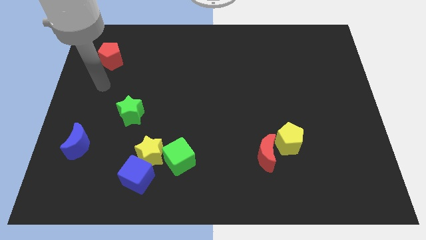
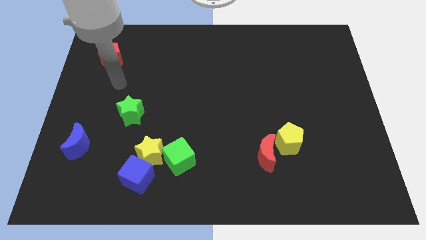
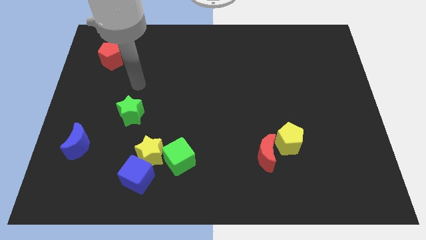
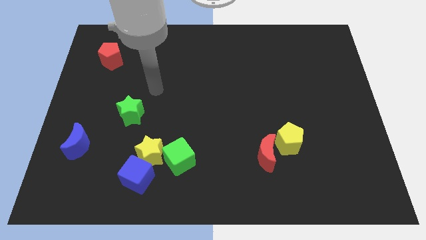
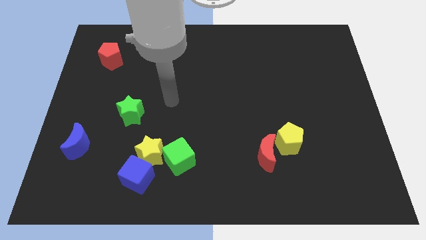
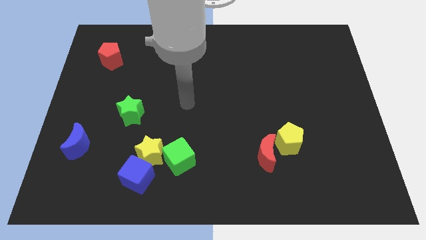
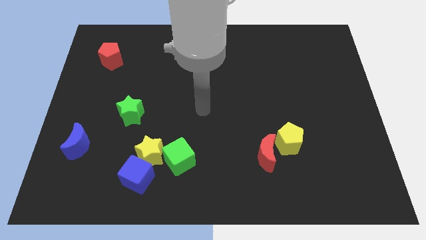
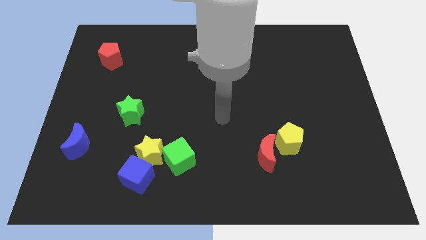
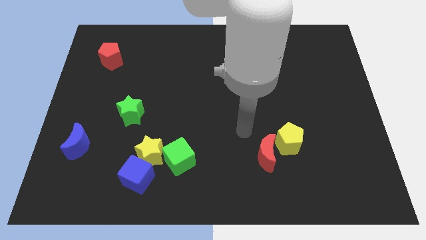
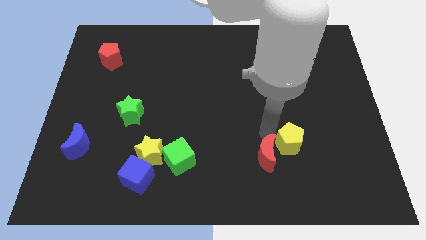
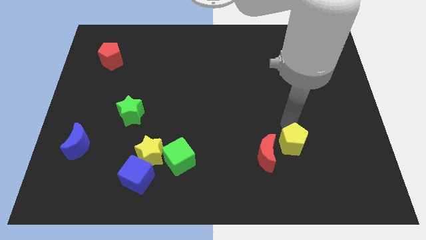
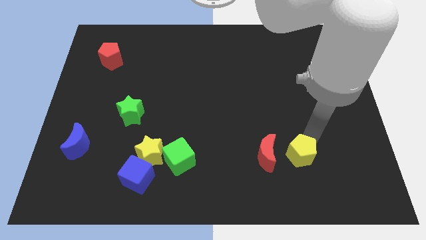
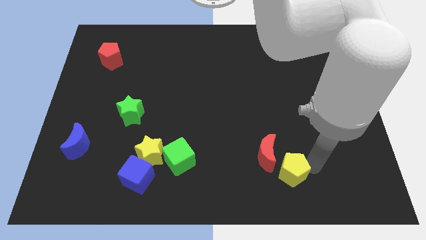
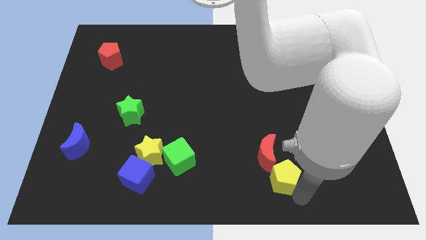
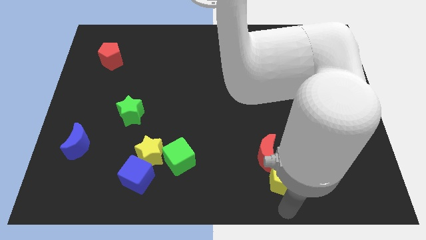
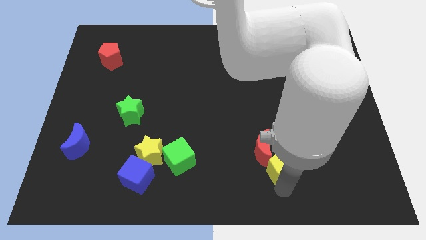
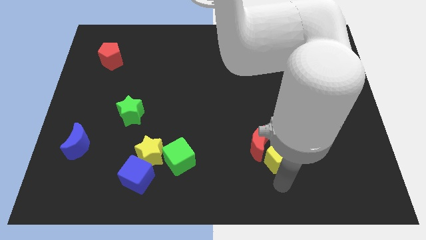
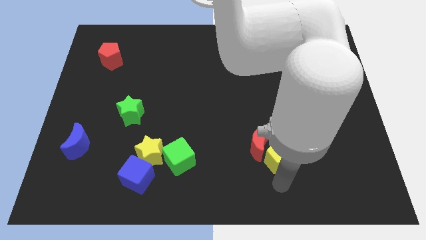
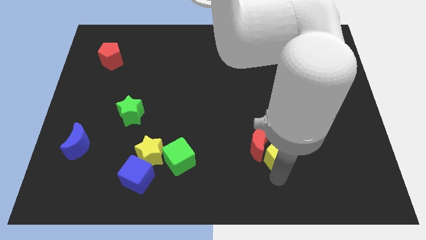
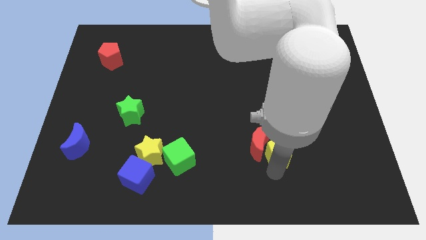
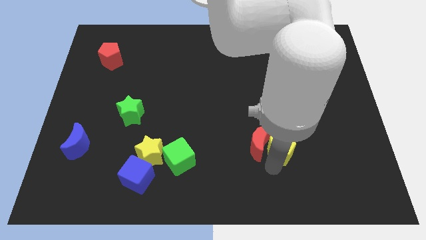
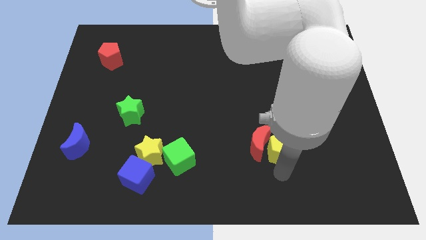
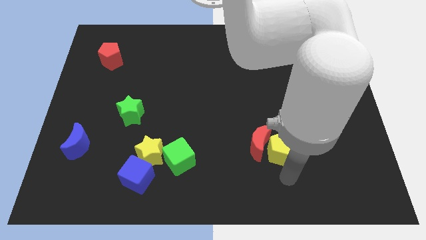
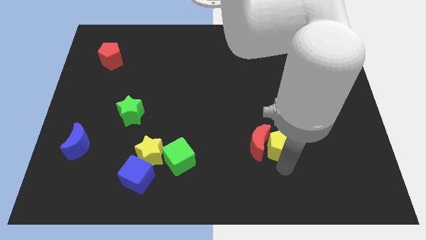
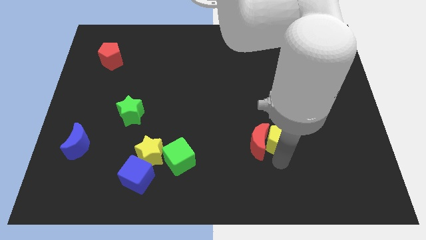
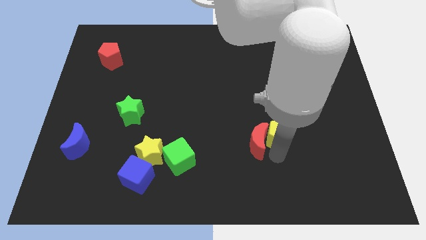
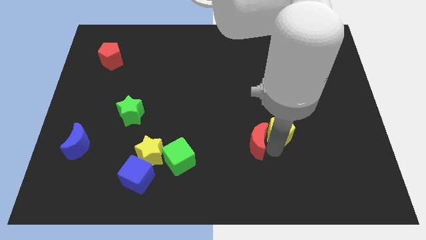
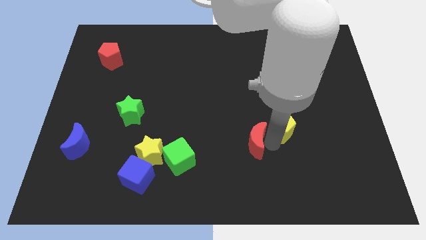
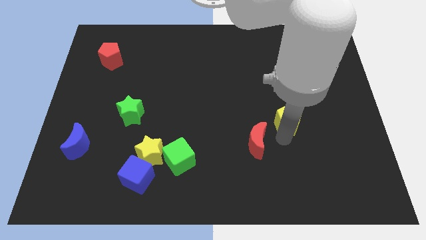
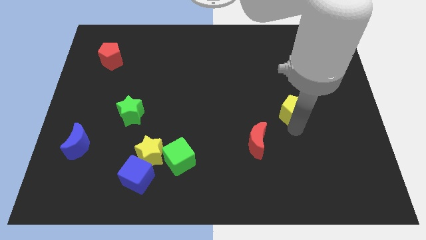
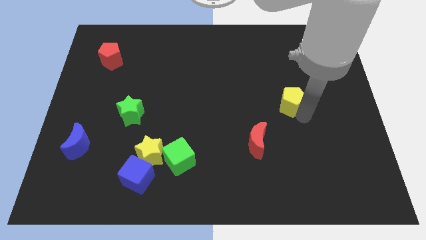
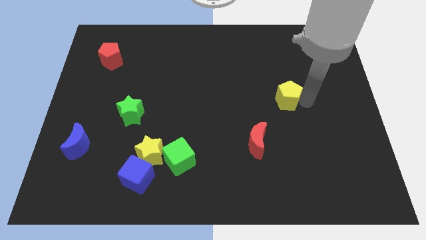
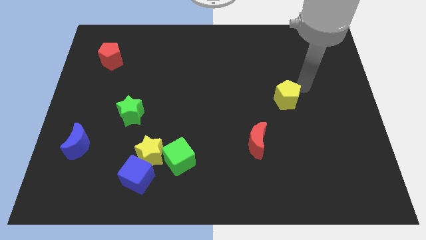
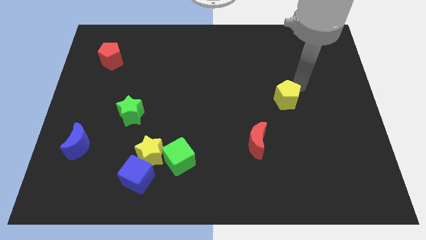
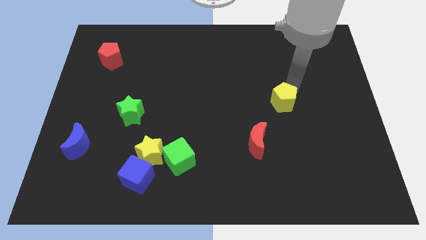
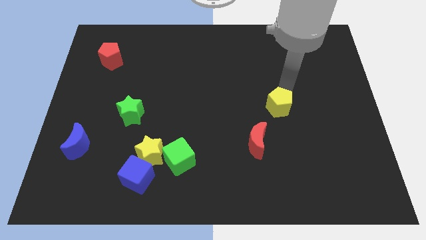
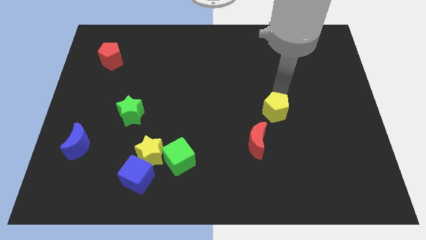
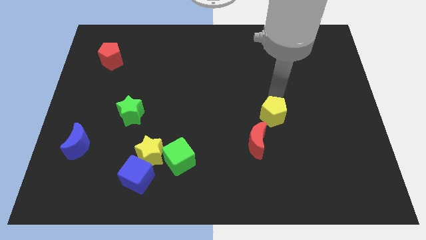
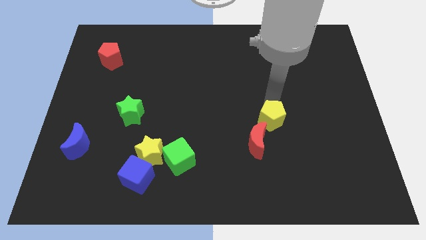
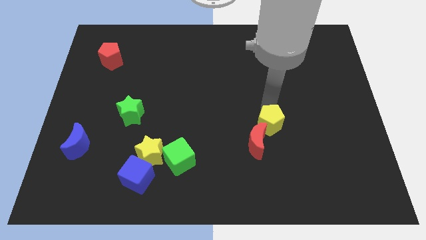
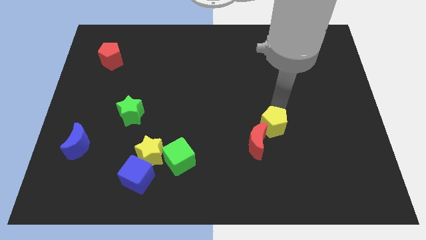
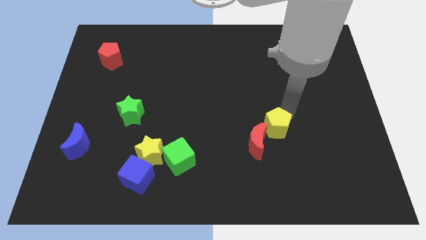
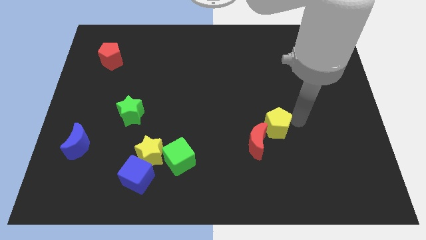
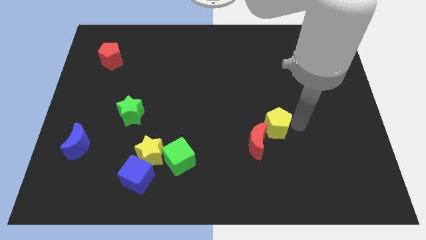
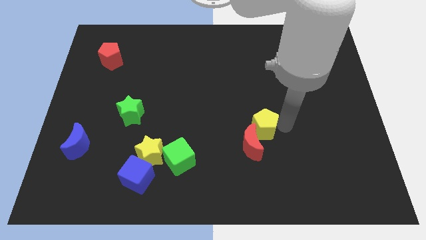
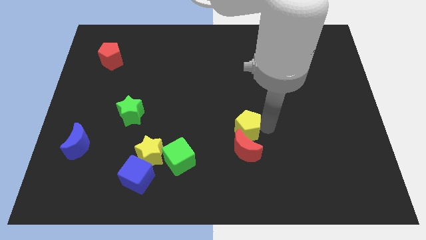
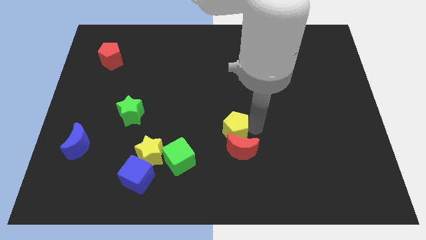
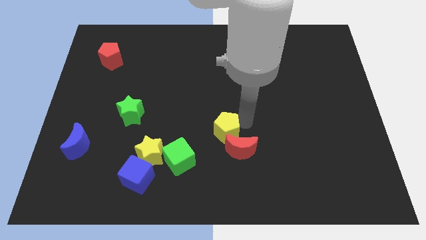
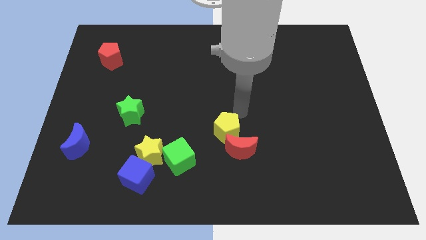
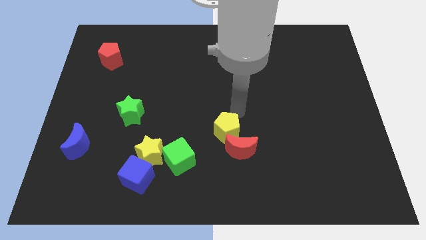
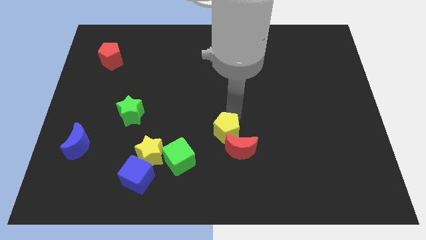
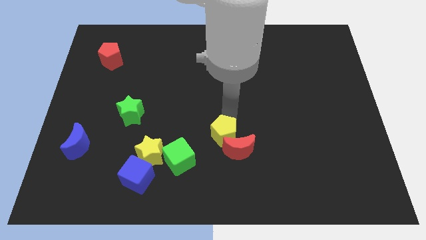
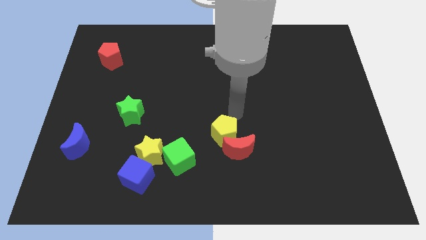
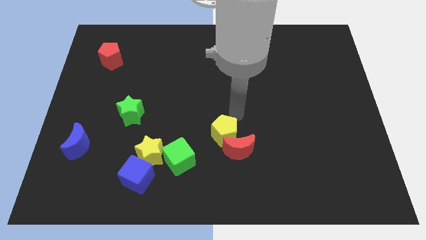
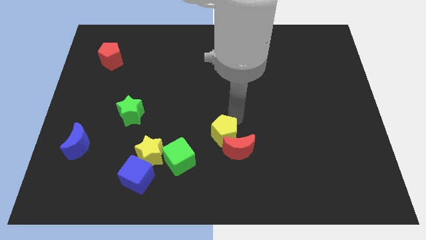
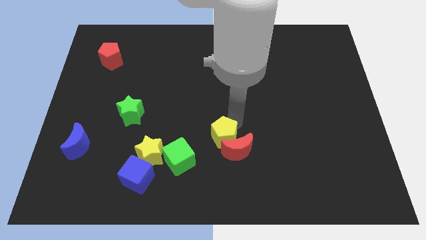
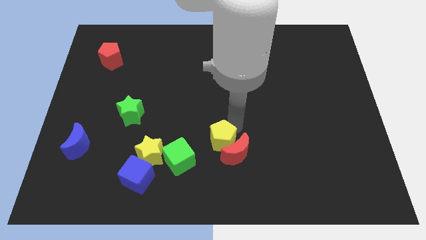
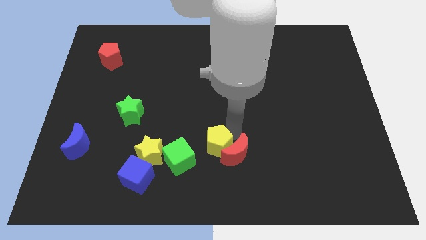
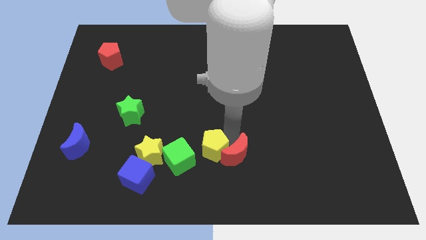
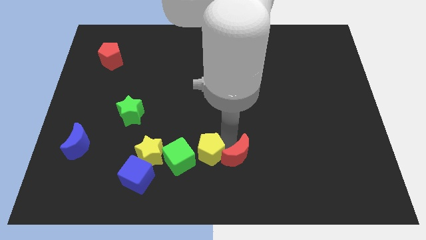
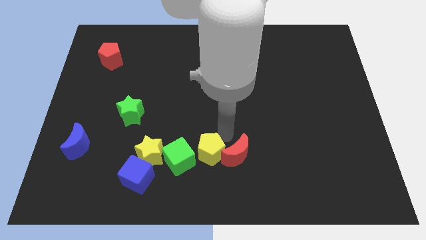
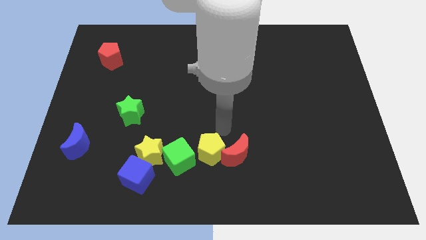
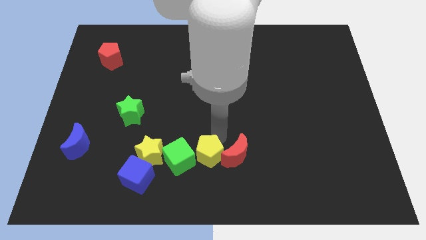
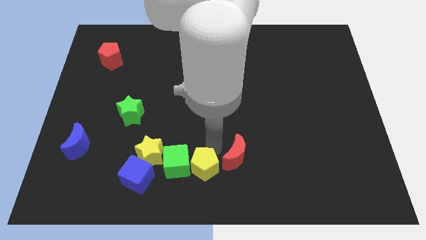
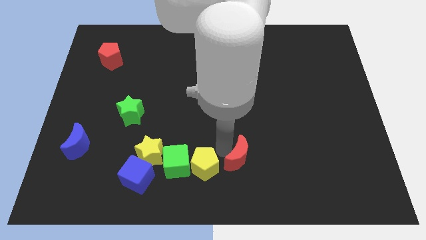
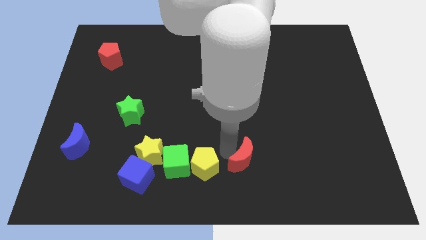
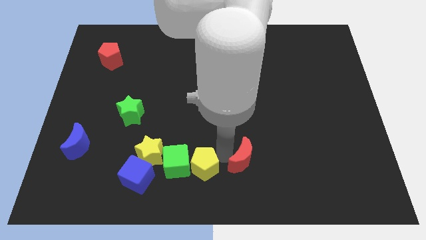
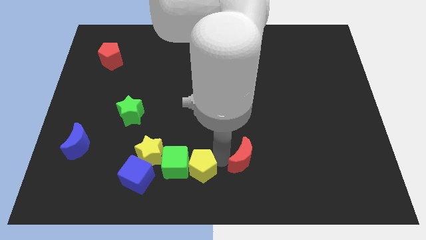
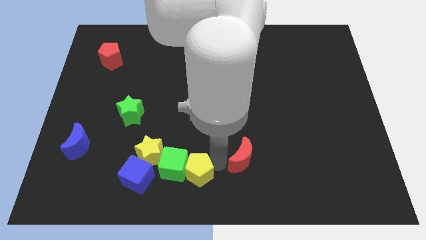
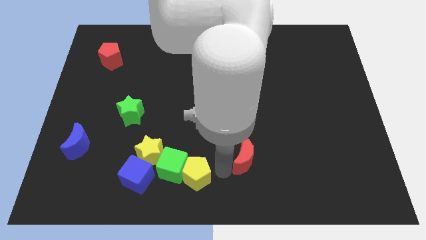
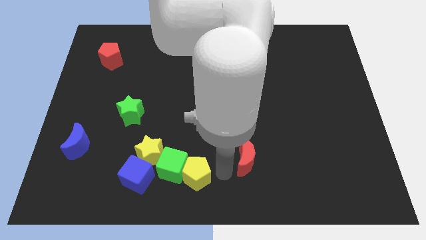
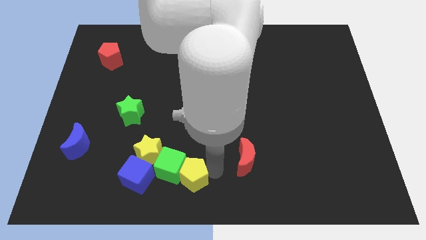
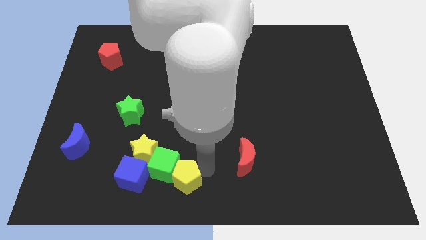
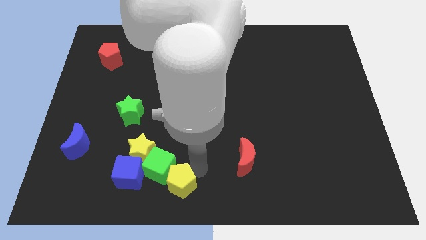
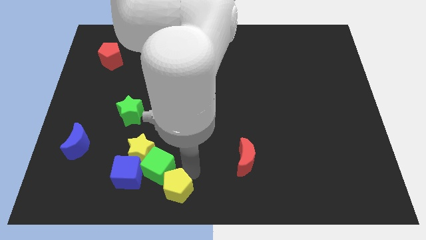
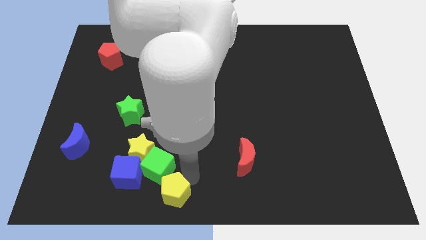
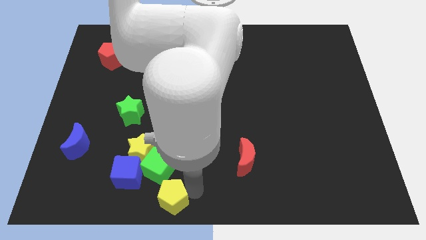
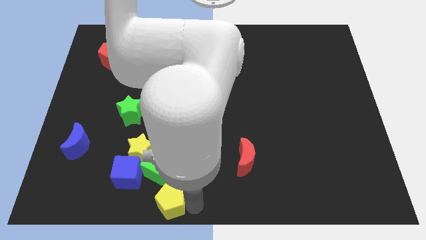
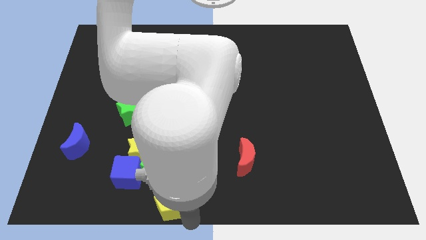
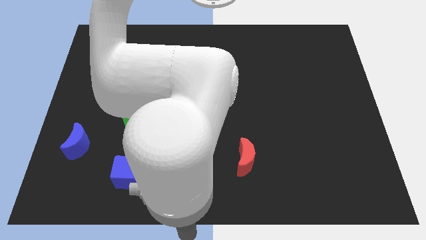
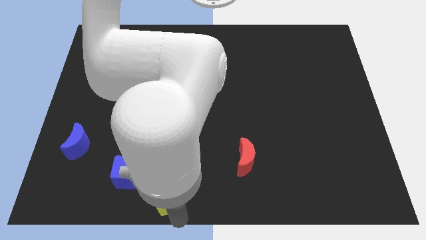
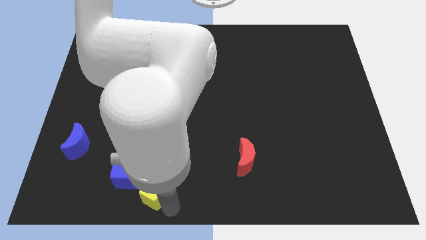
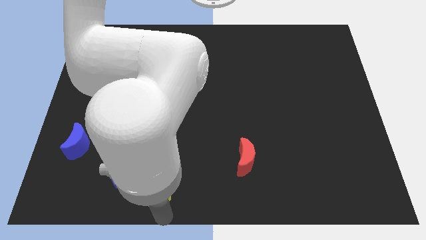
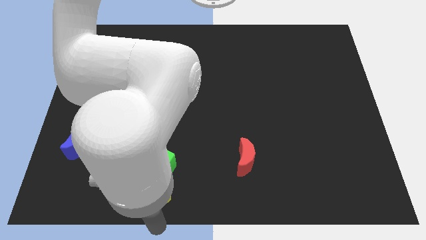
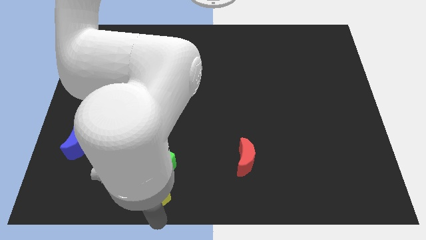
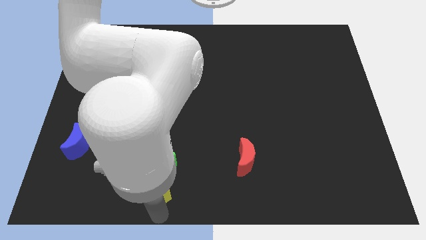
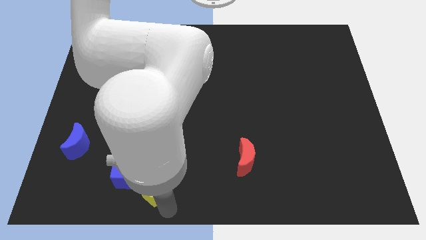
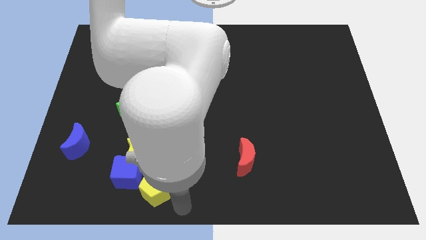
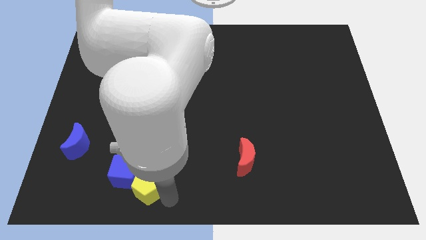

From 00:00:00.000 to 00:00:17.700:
push the yellow pentagon towards the blue cube
